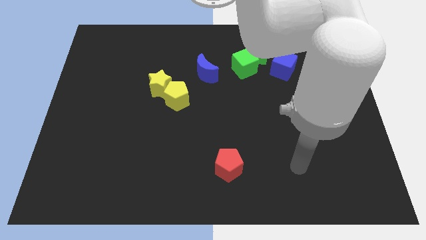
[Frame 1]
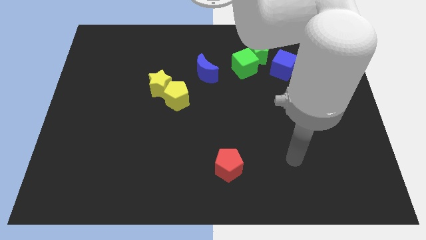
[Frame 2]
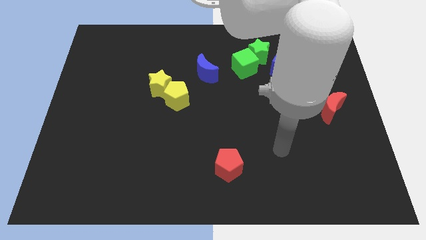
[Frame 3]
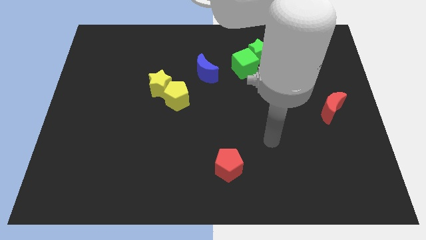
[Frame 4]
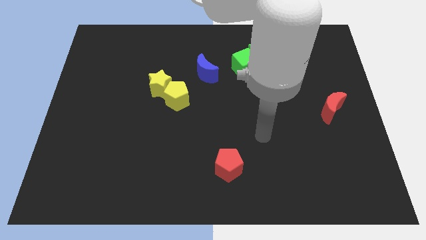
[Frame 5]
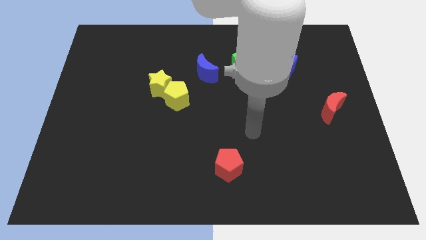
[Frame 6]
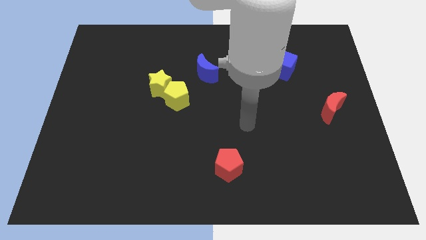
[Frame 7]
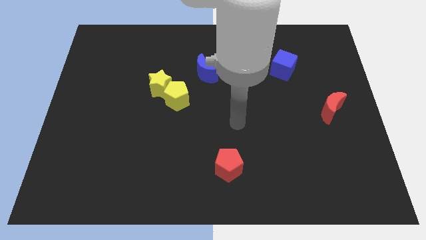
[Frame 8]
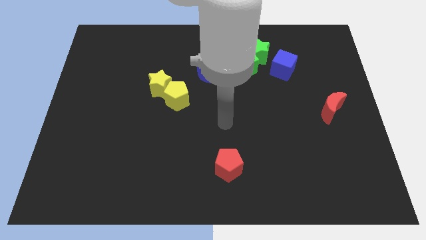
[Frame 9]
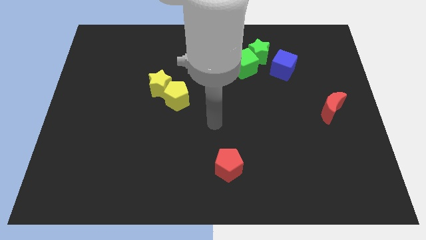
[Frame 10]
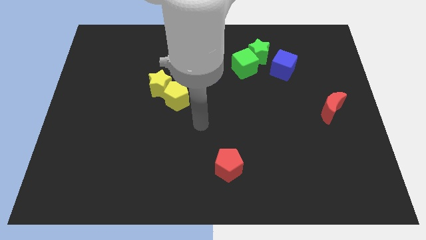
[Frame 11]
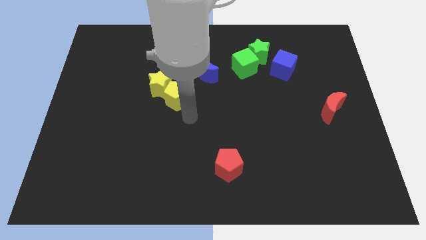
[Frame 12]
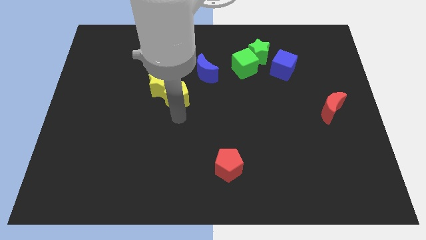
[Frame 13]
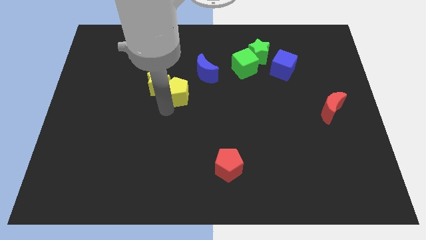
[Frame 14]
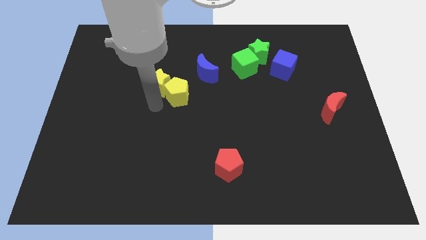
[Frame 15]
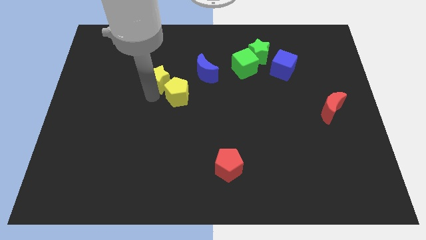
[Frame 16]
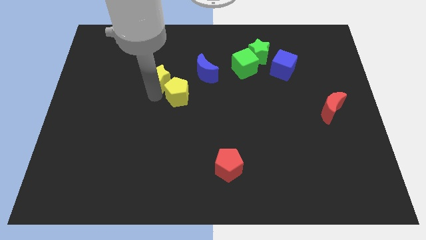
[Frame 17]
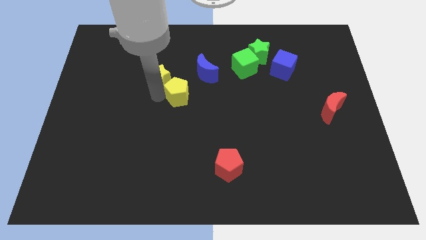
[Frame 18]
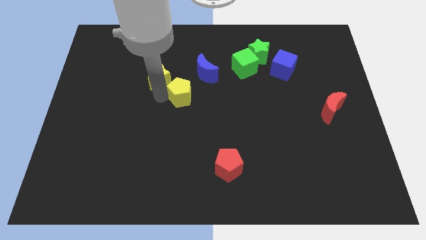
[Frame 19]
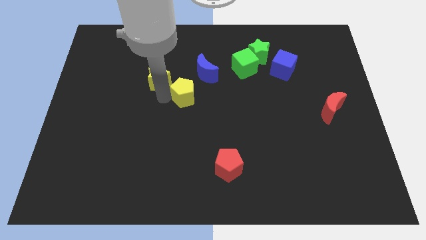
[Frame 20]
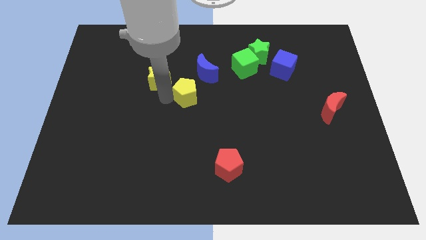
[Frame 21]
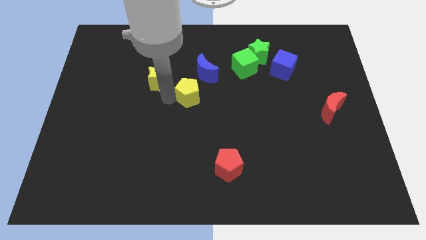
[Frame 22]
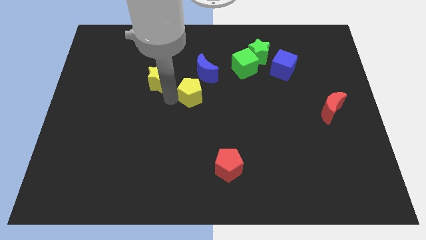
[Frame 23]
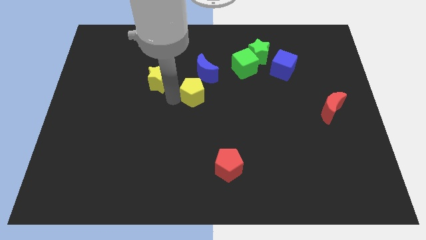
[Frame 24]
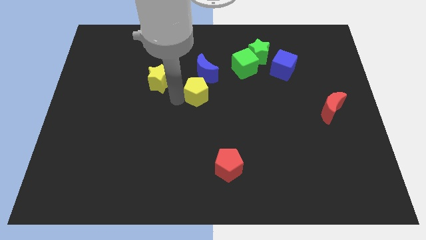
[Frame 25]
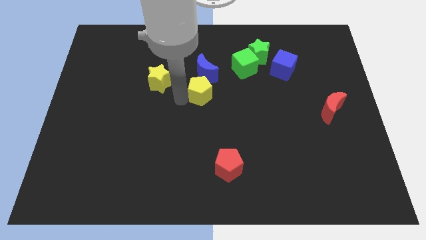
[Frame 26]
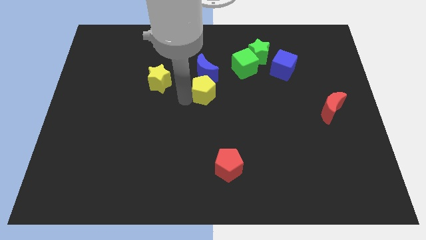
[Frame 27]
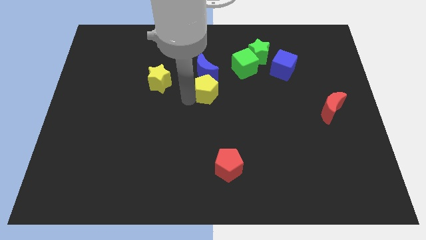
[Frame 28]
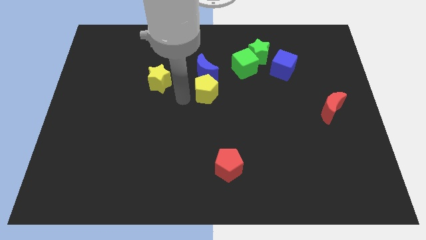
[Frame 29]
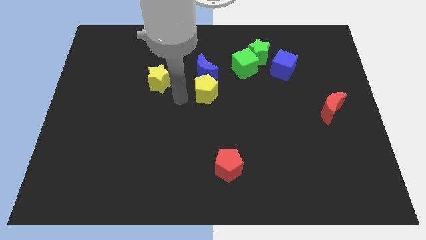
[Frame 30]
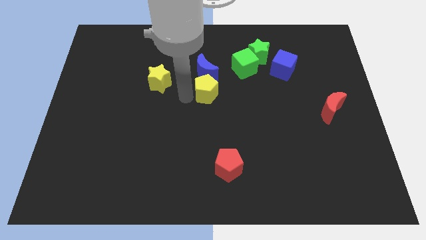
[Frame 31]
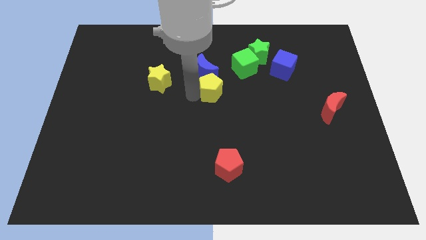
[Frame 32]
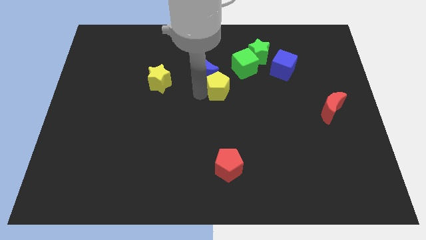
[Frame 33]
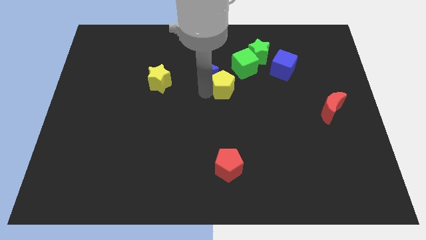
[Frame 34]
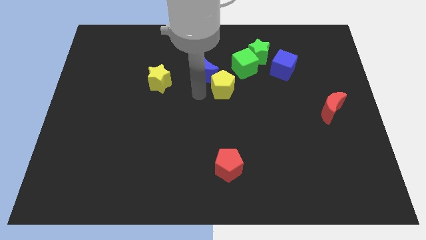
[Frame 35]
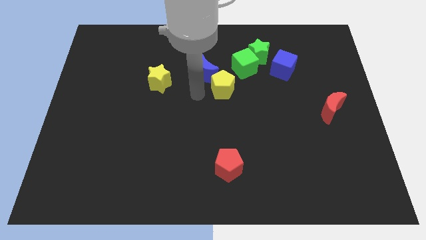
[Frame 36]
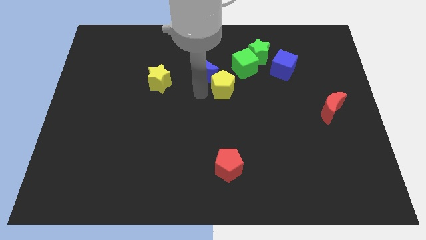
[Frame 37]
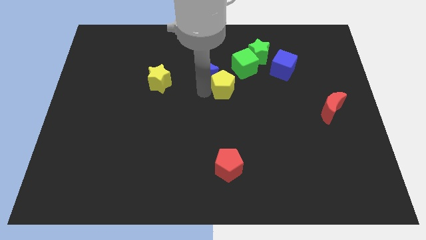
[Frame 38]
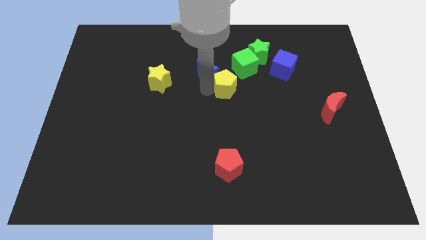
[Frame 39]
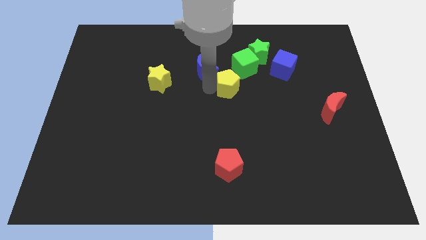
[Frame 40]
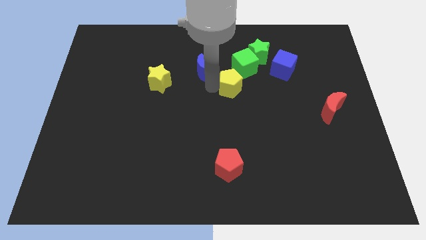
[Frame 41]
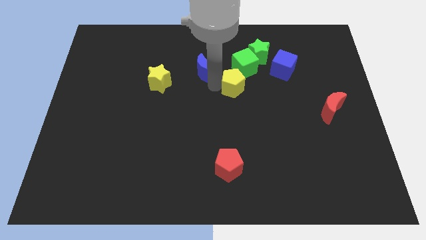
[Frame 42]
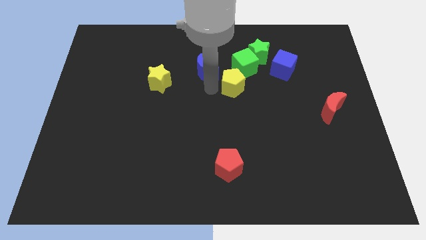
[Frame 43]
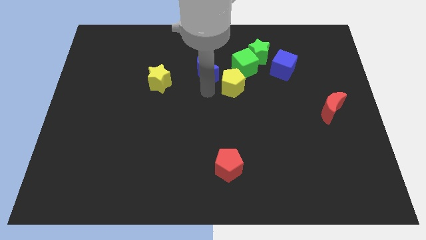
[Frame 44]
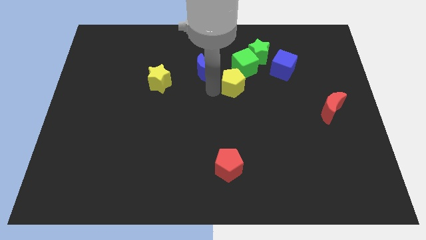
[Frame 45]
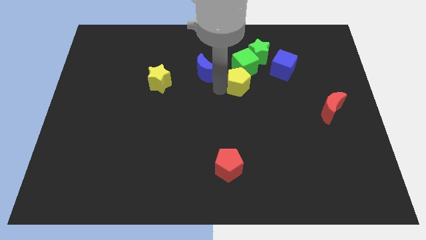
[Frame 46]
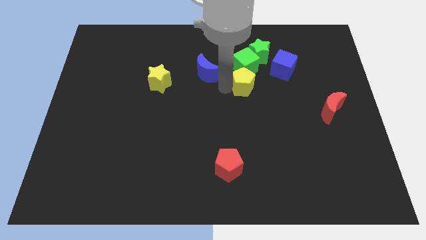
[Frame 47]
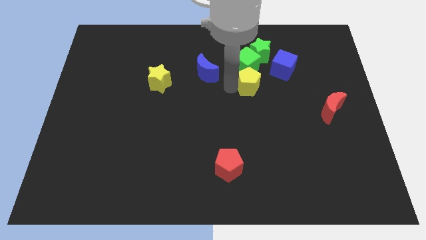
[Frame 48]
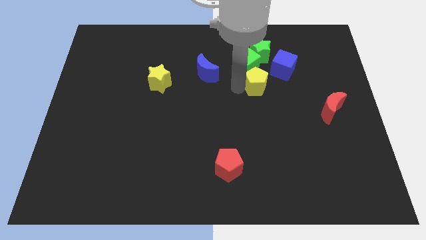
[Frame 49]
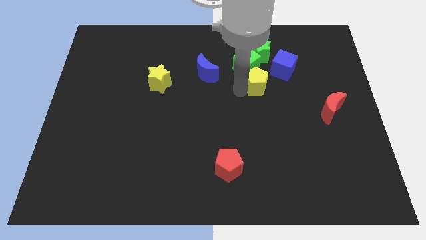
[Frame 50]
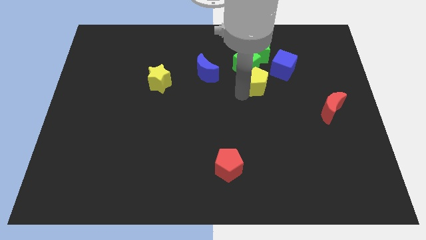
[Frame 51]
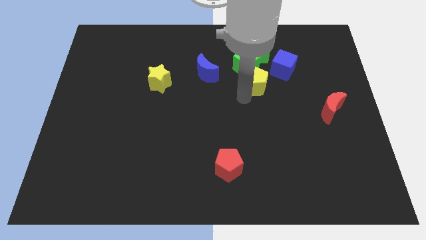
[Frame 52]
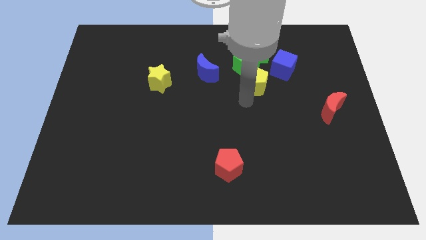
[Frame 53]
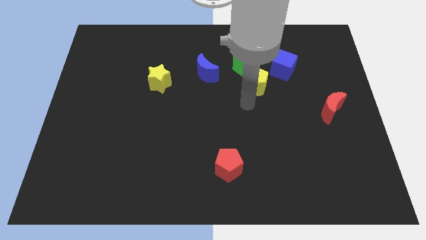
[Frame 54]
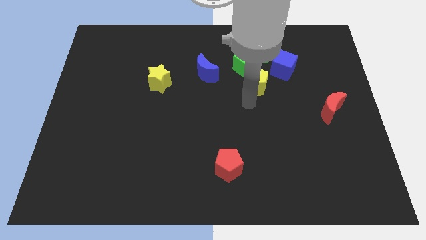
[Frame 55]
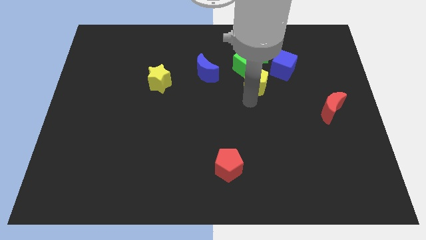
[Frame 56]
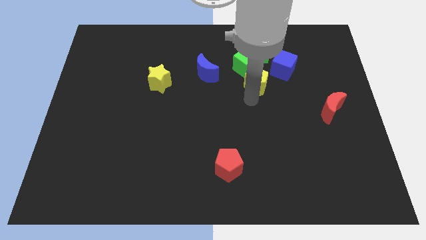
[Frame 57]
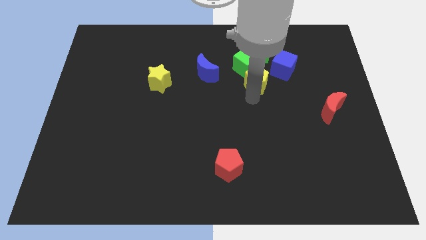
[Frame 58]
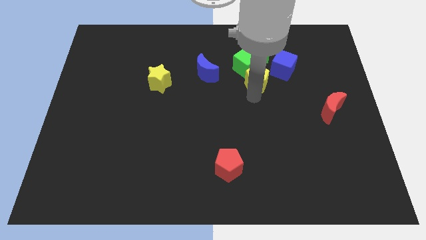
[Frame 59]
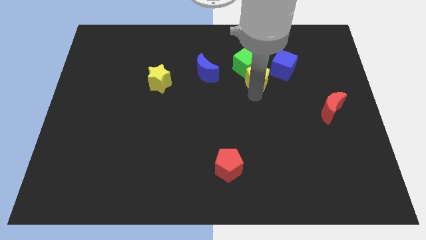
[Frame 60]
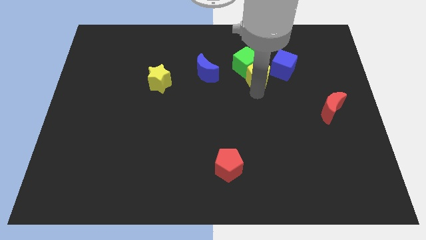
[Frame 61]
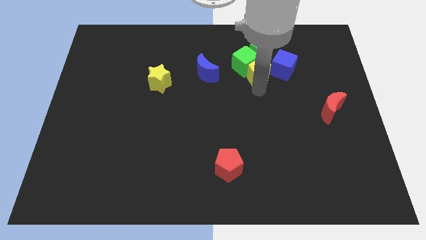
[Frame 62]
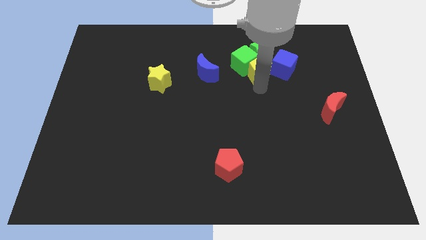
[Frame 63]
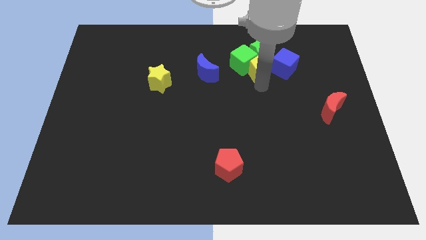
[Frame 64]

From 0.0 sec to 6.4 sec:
move the yellow pentagon close to the green star

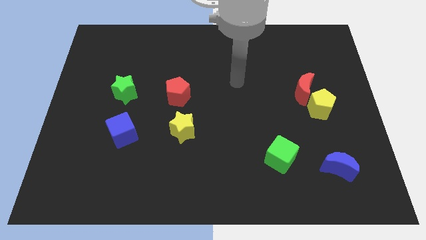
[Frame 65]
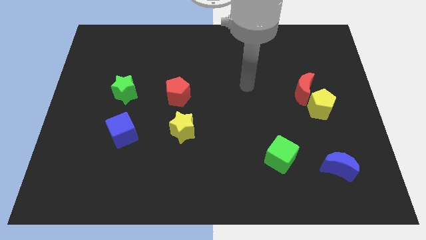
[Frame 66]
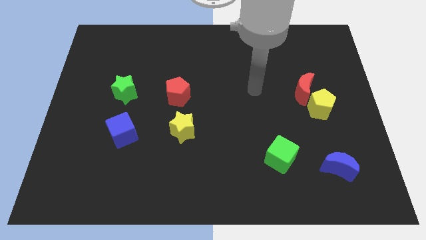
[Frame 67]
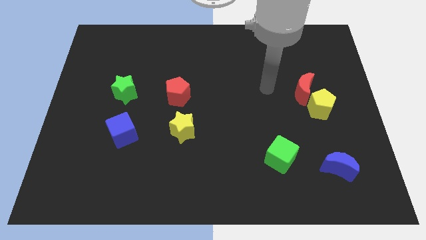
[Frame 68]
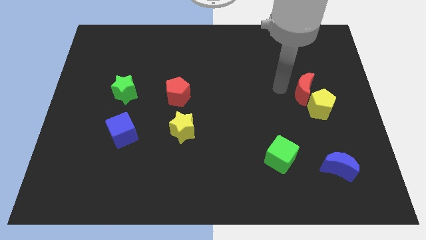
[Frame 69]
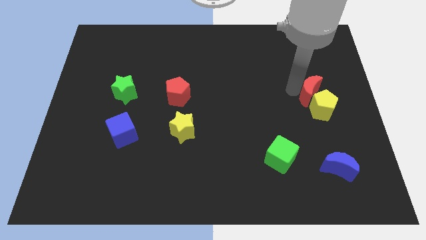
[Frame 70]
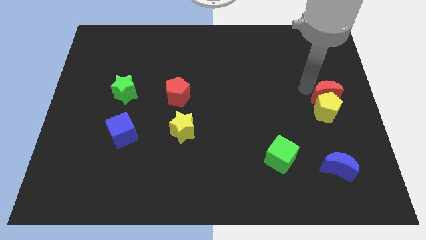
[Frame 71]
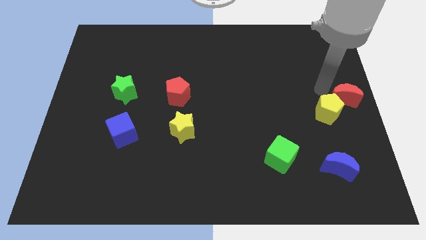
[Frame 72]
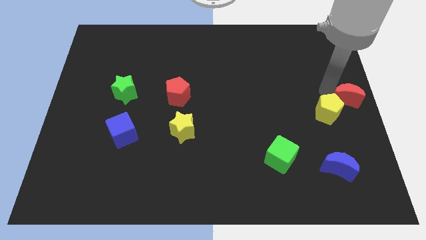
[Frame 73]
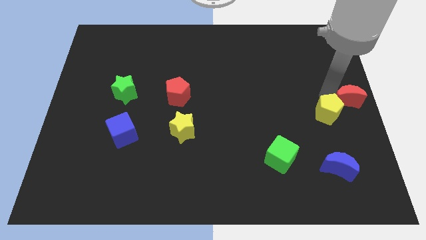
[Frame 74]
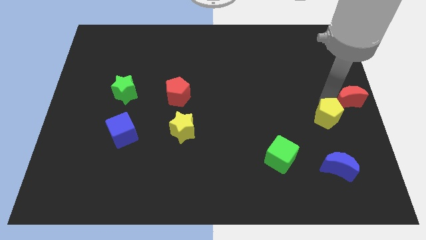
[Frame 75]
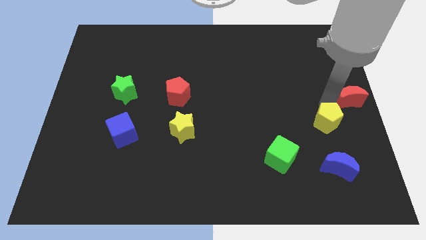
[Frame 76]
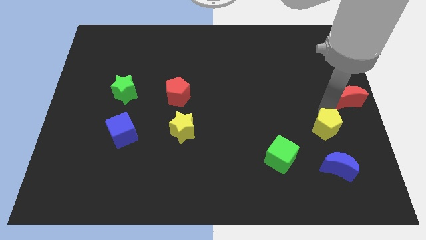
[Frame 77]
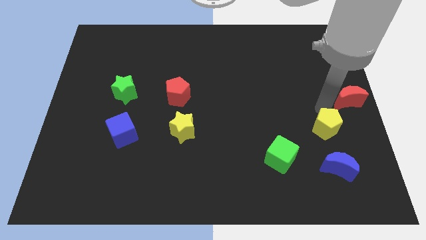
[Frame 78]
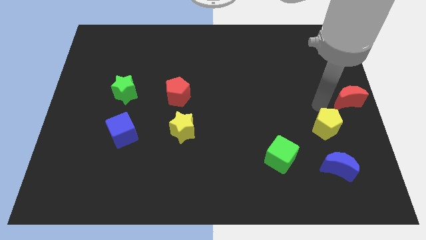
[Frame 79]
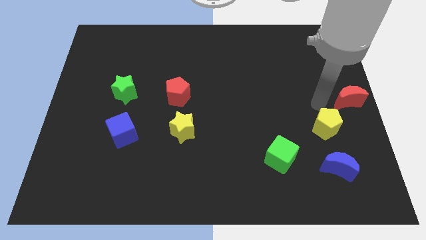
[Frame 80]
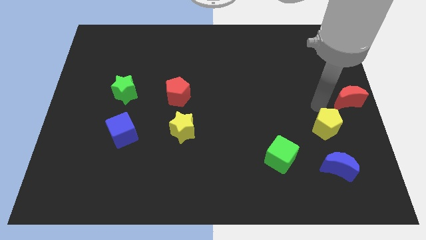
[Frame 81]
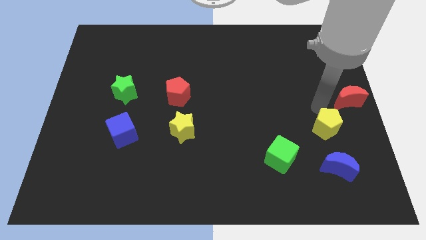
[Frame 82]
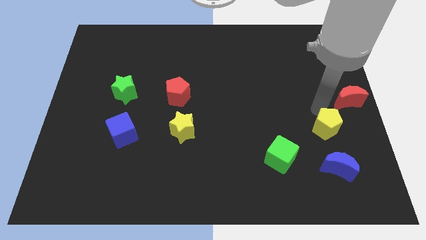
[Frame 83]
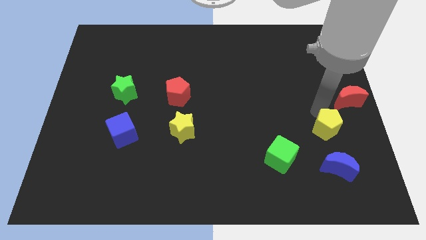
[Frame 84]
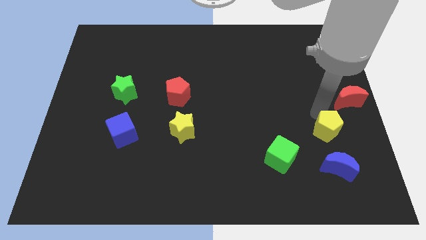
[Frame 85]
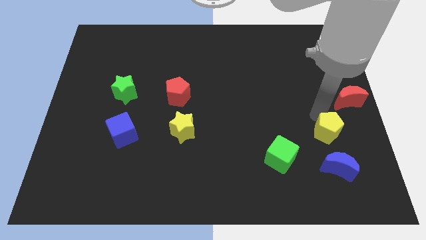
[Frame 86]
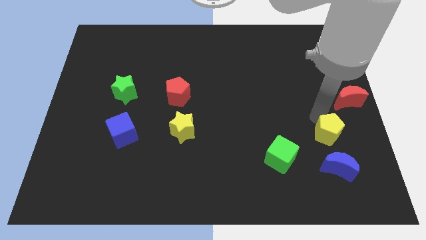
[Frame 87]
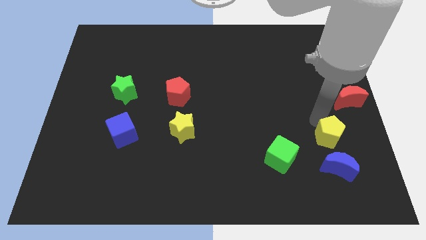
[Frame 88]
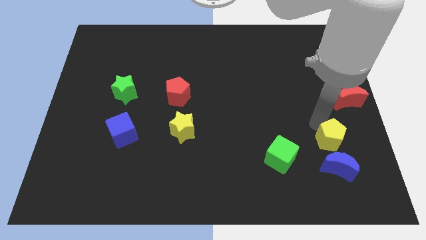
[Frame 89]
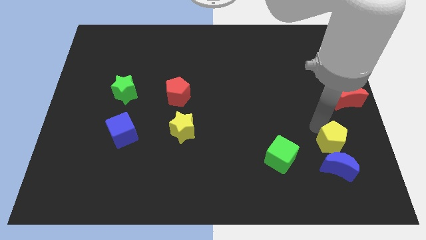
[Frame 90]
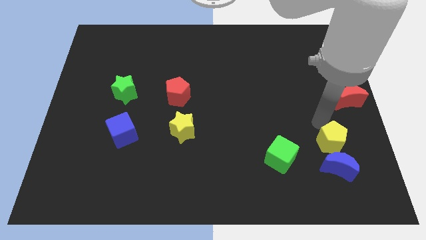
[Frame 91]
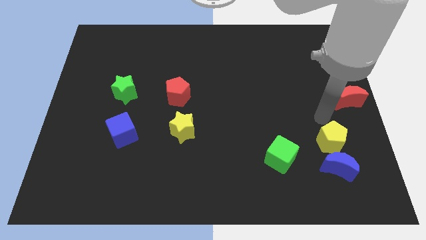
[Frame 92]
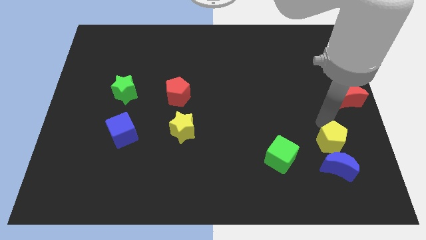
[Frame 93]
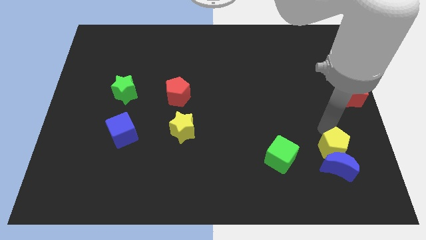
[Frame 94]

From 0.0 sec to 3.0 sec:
move the yellow pentagon towards the blue moon
